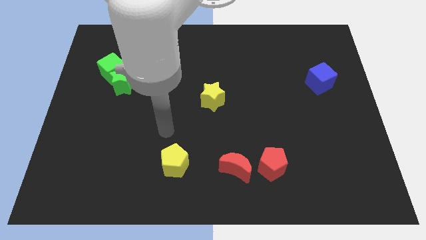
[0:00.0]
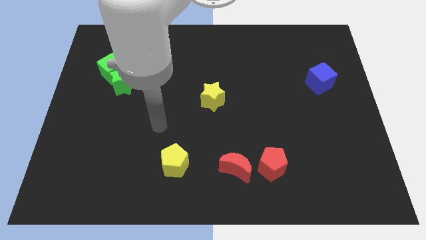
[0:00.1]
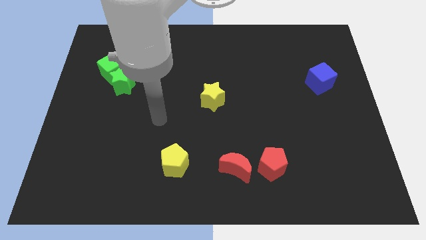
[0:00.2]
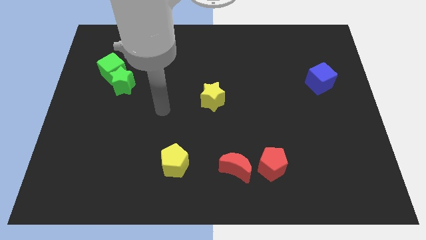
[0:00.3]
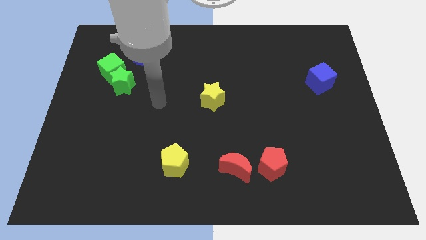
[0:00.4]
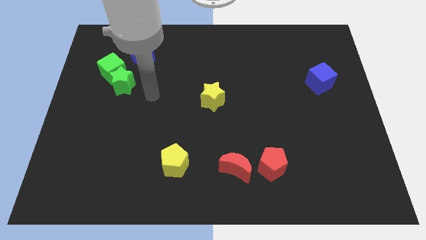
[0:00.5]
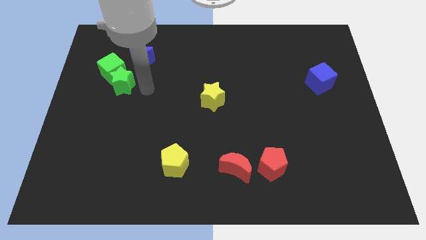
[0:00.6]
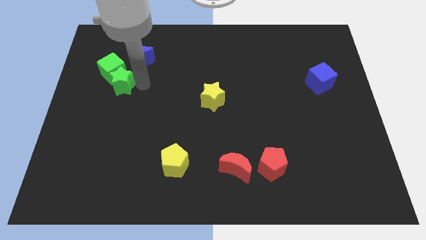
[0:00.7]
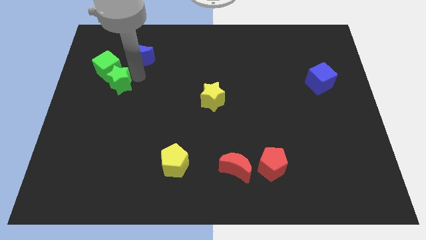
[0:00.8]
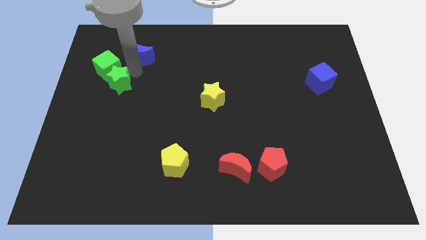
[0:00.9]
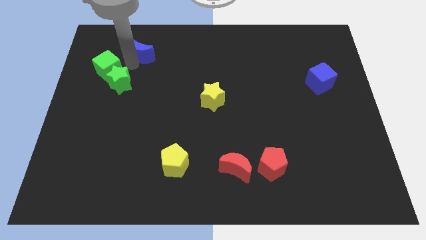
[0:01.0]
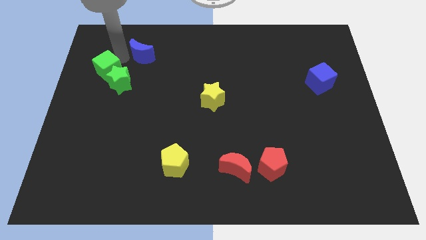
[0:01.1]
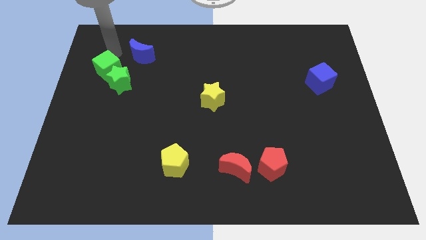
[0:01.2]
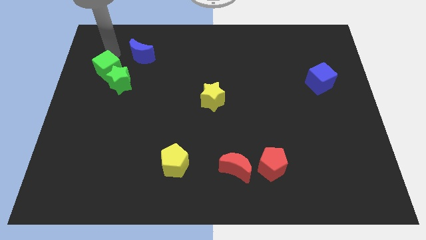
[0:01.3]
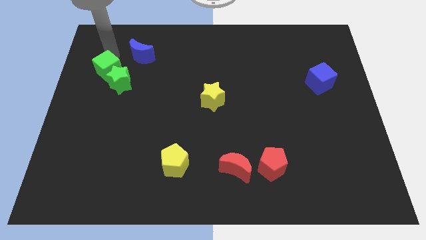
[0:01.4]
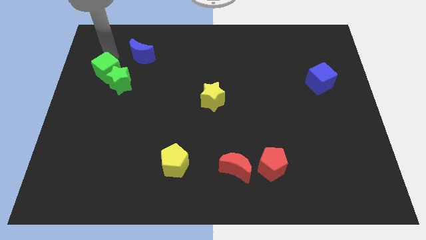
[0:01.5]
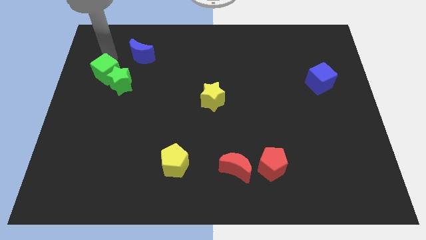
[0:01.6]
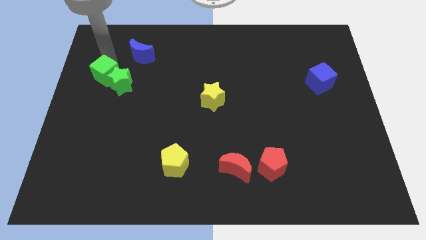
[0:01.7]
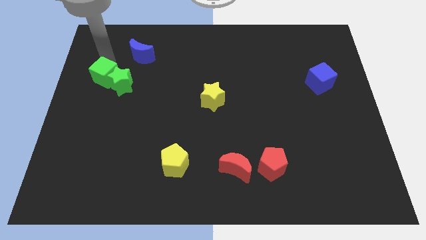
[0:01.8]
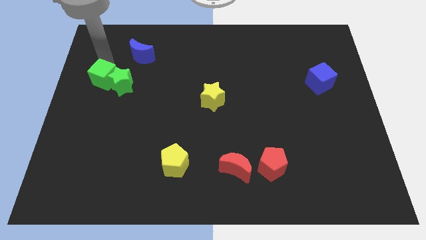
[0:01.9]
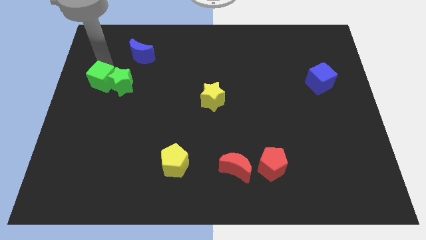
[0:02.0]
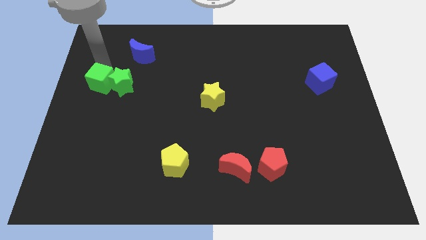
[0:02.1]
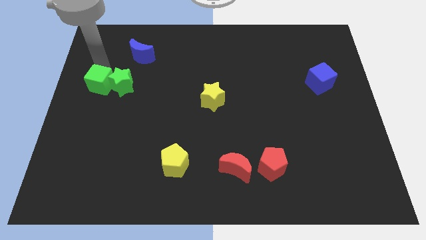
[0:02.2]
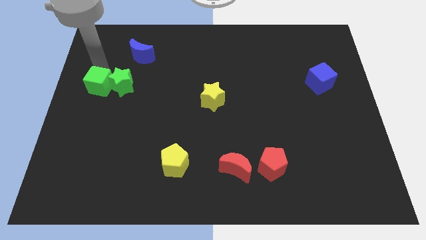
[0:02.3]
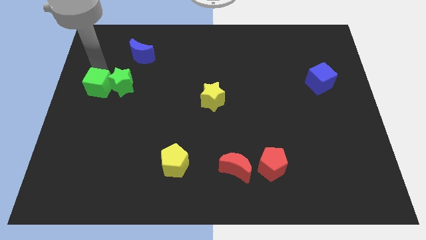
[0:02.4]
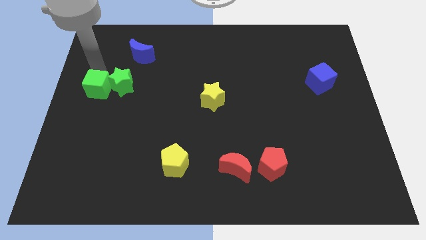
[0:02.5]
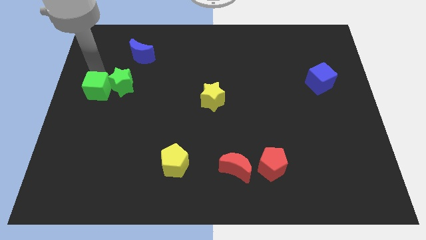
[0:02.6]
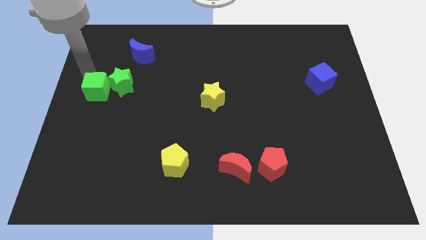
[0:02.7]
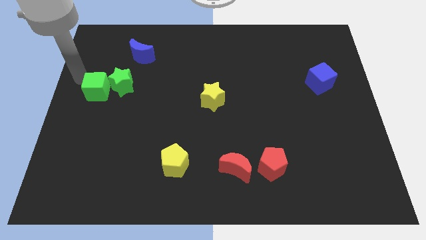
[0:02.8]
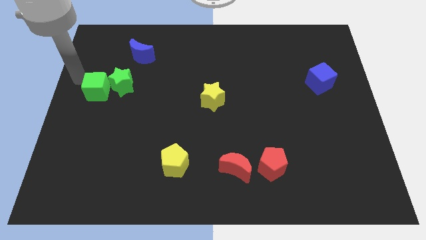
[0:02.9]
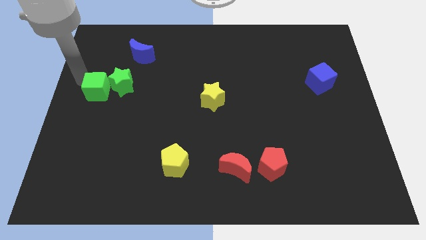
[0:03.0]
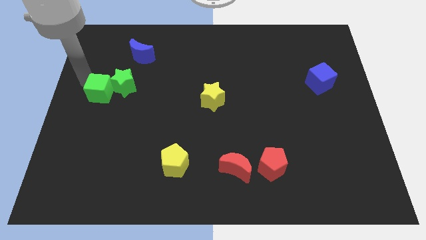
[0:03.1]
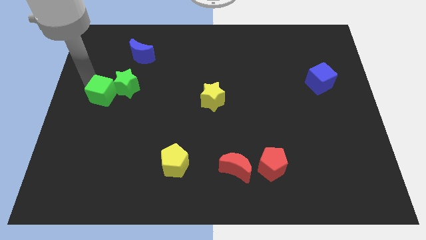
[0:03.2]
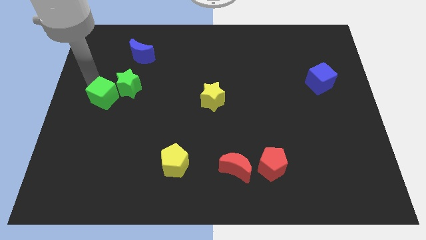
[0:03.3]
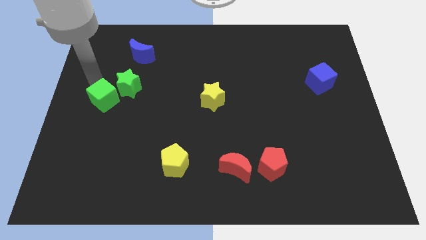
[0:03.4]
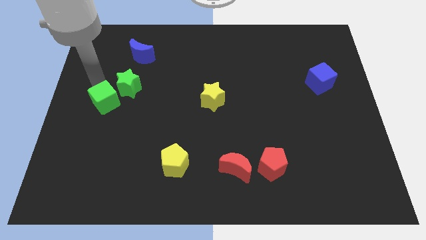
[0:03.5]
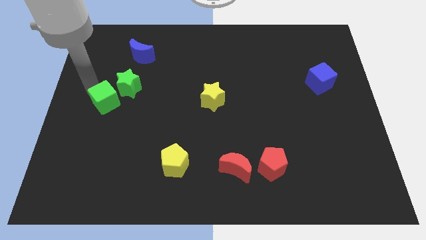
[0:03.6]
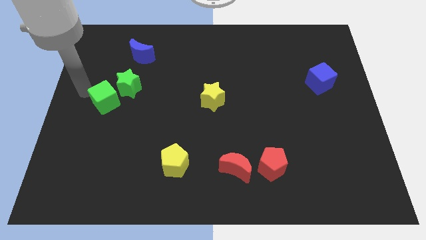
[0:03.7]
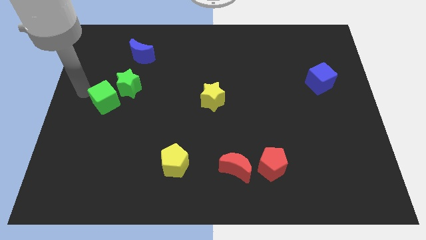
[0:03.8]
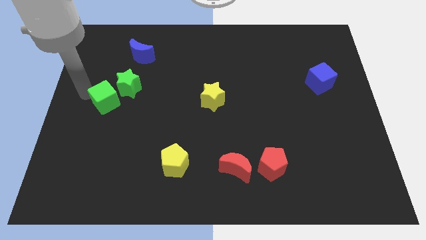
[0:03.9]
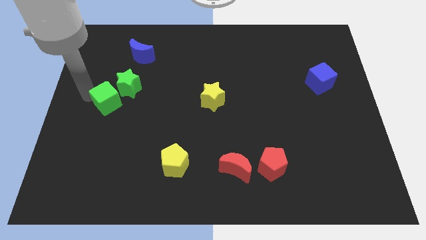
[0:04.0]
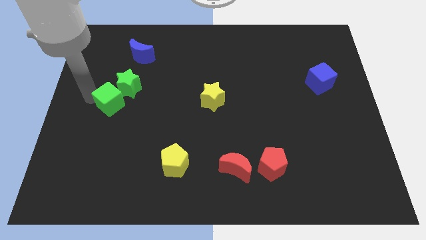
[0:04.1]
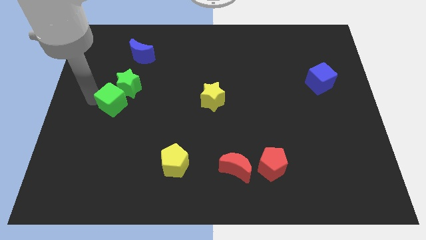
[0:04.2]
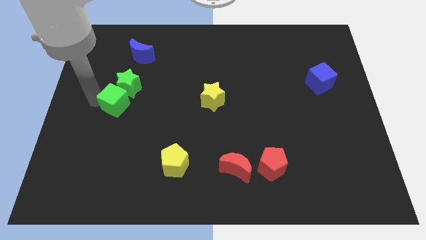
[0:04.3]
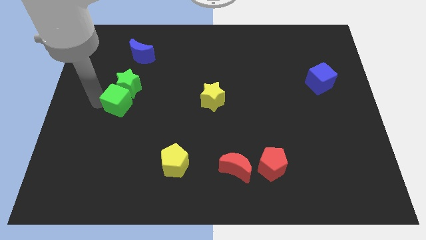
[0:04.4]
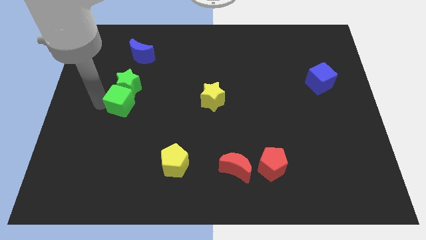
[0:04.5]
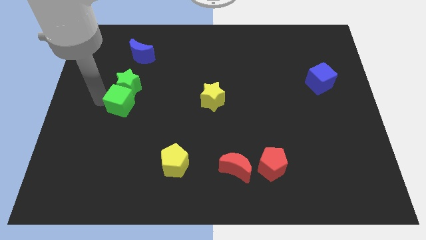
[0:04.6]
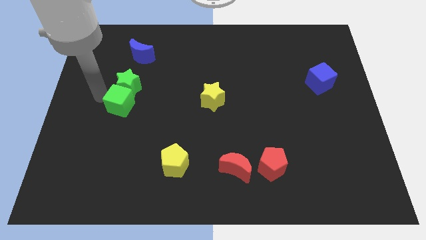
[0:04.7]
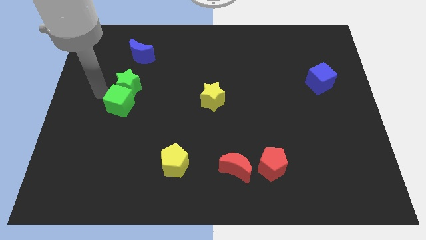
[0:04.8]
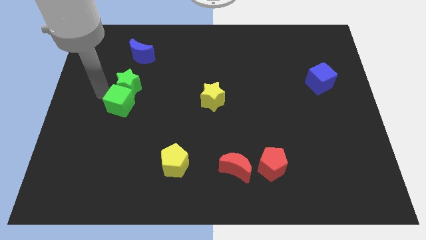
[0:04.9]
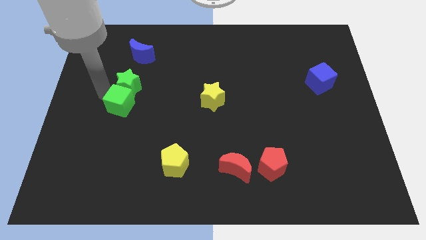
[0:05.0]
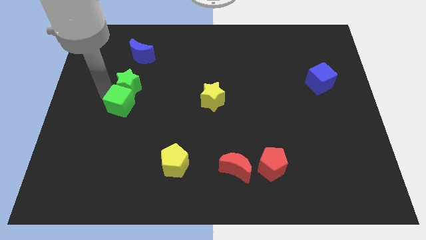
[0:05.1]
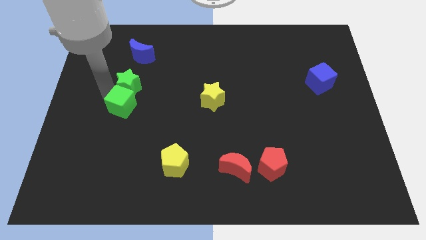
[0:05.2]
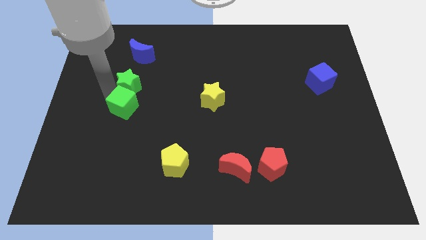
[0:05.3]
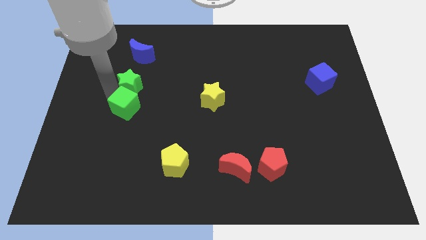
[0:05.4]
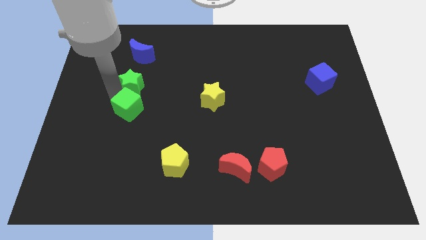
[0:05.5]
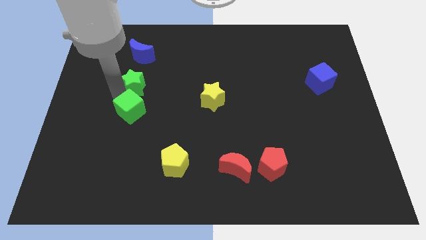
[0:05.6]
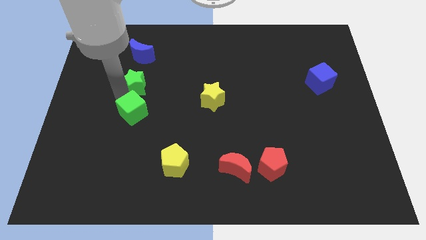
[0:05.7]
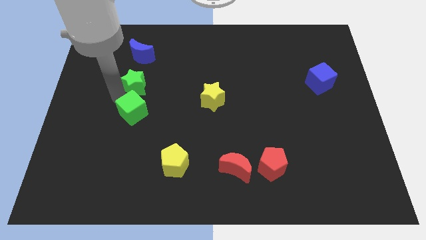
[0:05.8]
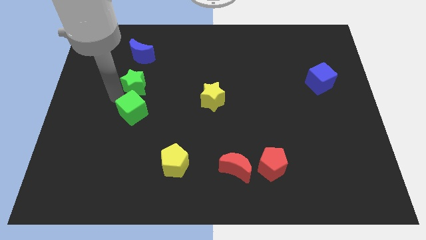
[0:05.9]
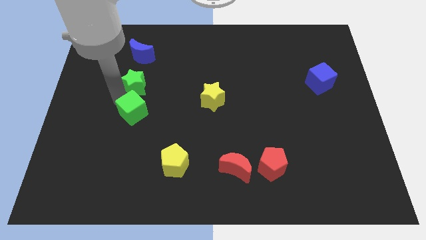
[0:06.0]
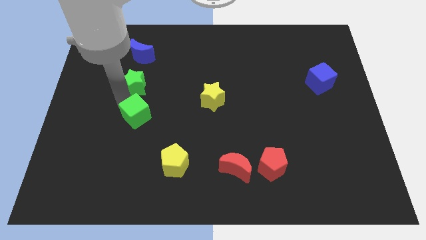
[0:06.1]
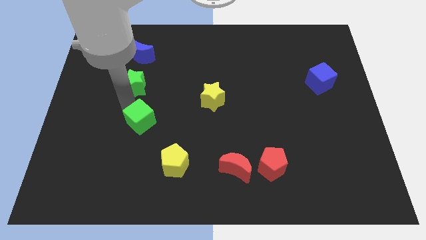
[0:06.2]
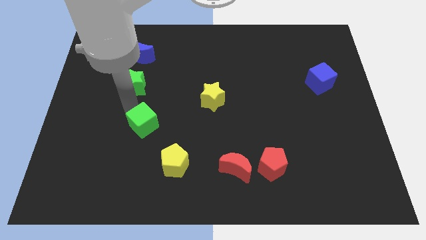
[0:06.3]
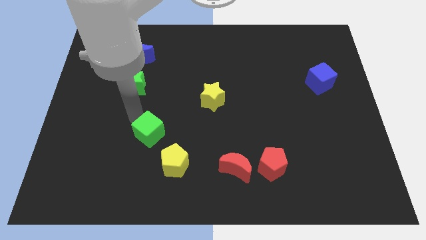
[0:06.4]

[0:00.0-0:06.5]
push the green cube diagonally down and right

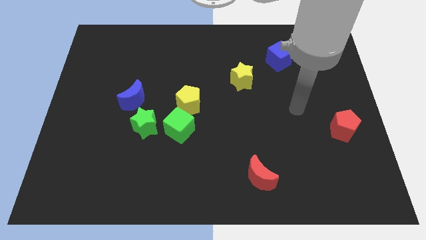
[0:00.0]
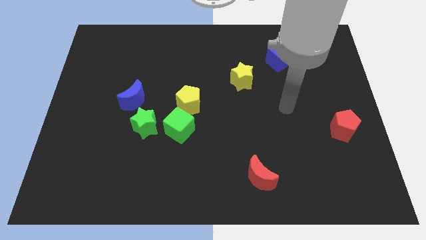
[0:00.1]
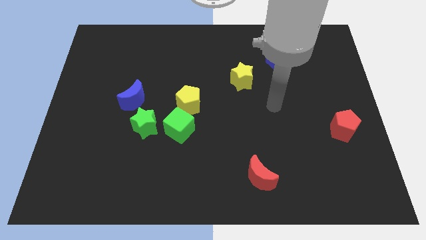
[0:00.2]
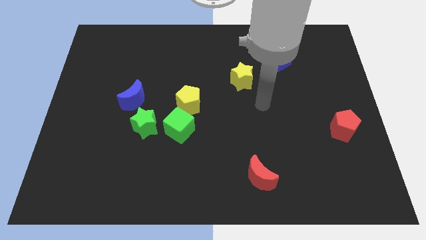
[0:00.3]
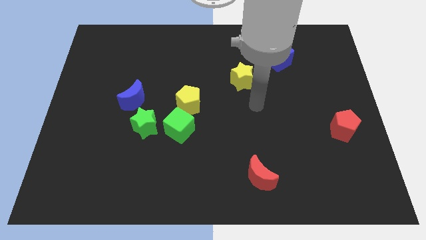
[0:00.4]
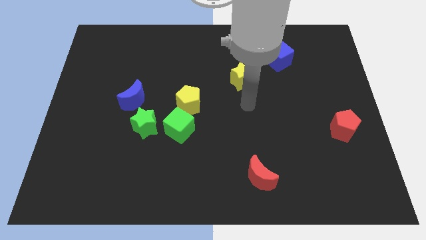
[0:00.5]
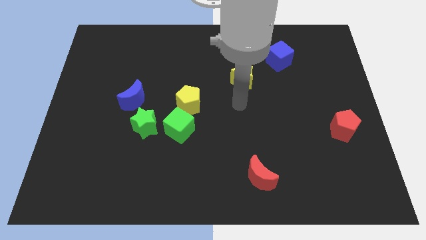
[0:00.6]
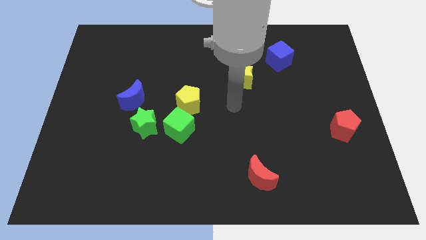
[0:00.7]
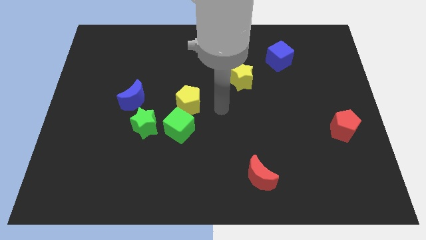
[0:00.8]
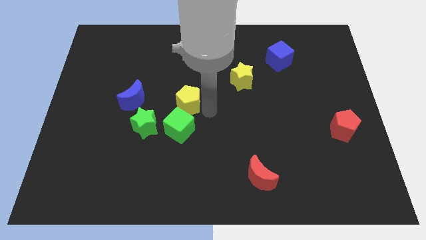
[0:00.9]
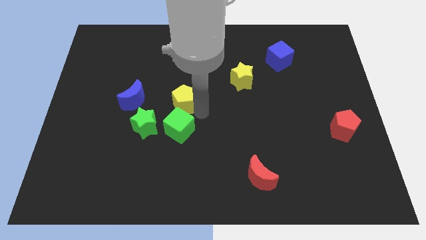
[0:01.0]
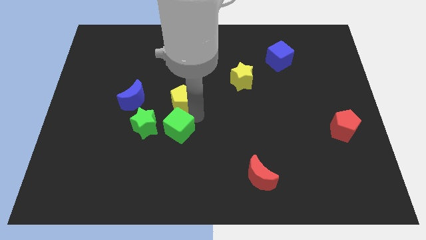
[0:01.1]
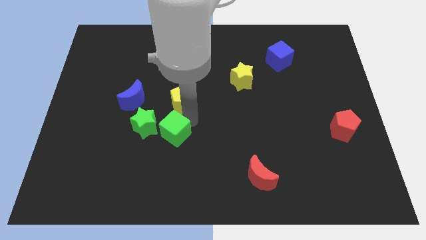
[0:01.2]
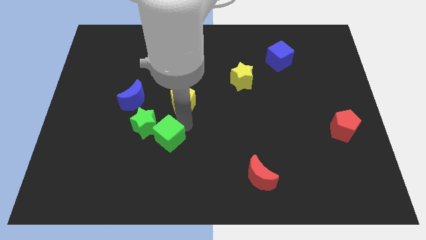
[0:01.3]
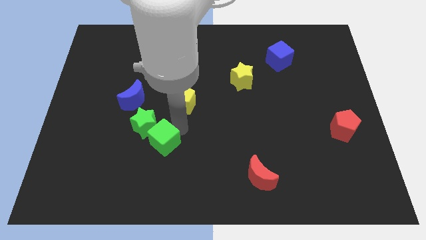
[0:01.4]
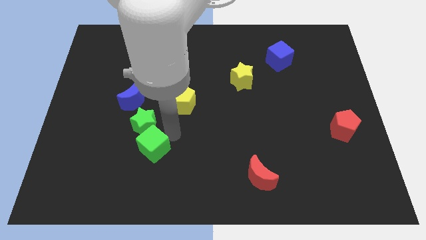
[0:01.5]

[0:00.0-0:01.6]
push the green cube somewhat diagonally downwards and to the left
